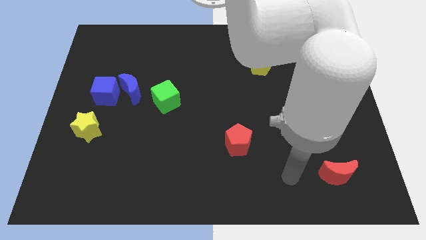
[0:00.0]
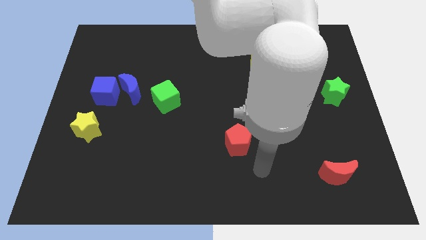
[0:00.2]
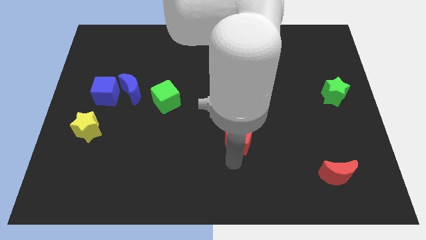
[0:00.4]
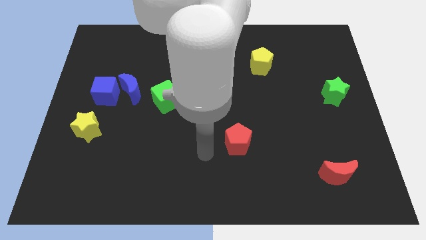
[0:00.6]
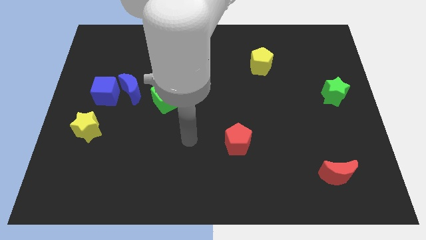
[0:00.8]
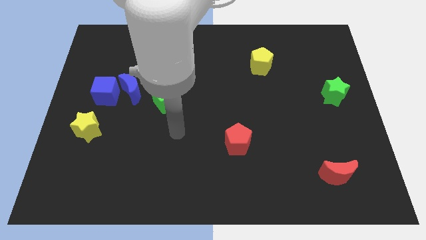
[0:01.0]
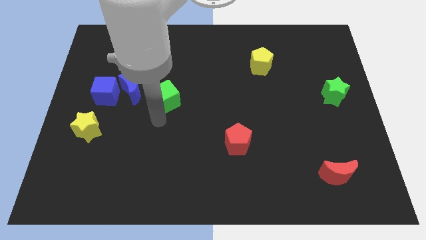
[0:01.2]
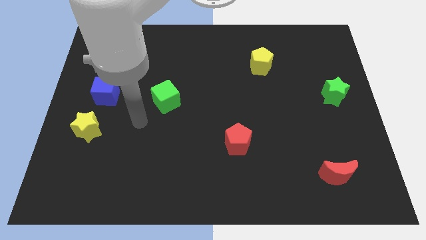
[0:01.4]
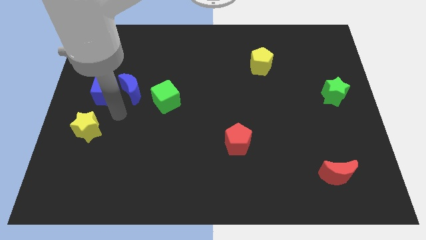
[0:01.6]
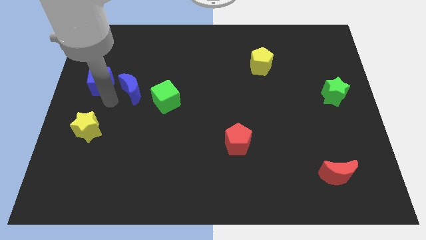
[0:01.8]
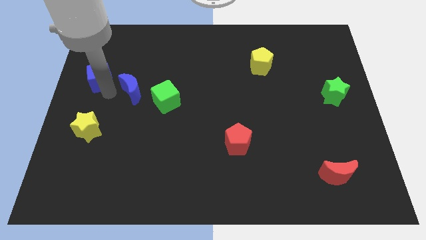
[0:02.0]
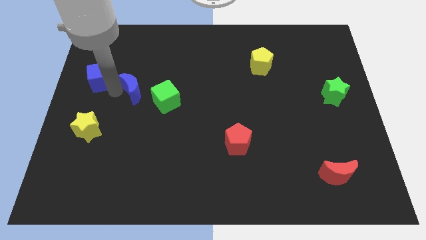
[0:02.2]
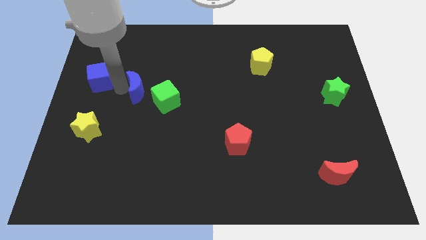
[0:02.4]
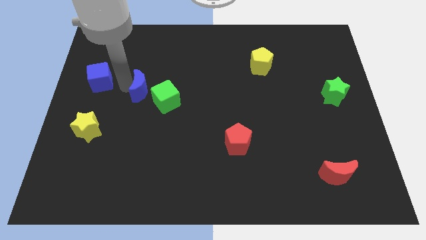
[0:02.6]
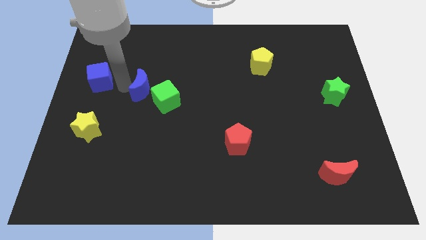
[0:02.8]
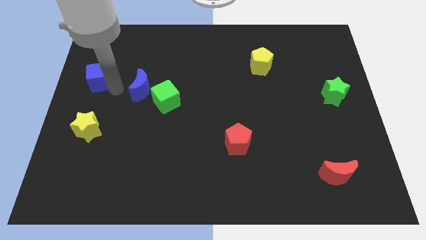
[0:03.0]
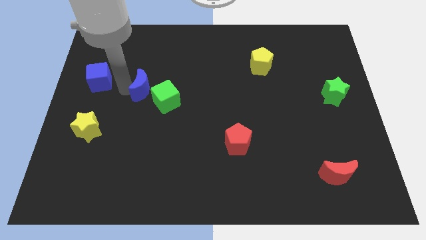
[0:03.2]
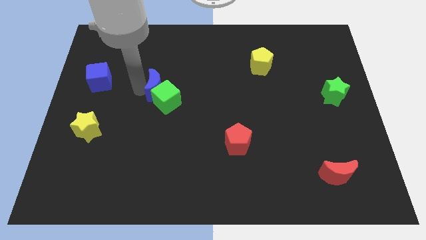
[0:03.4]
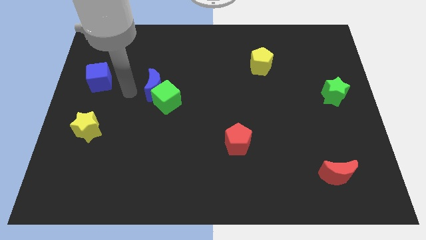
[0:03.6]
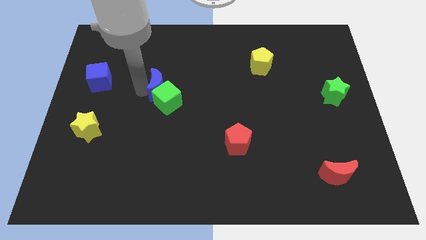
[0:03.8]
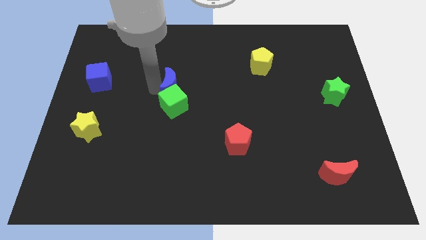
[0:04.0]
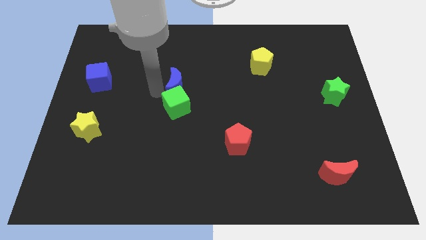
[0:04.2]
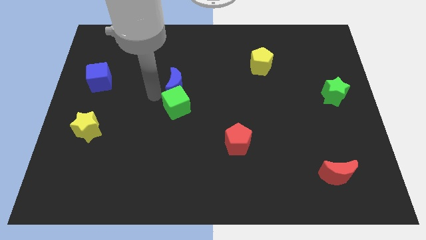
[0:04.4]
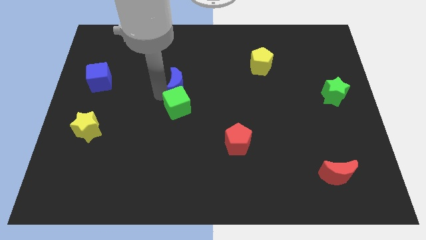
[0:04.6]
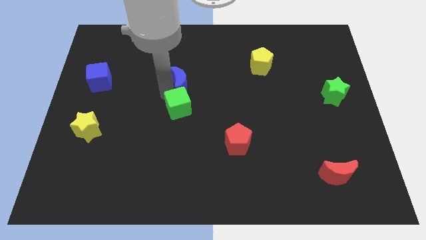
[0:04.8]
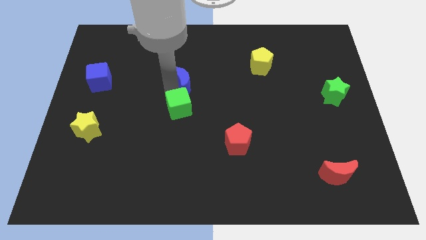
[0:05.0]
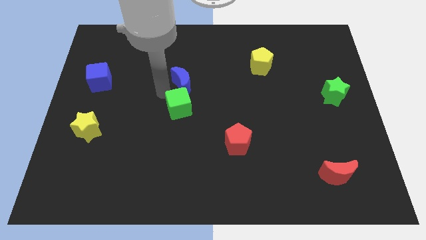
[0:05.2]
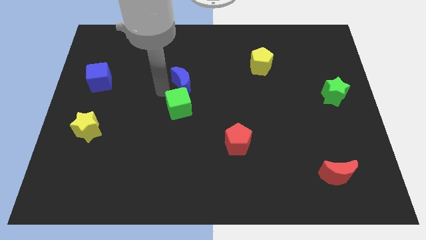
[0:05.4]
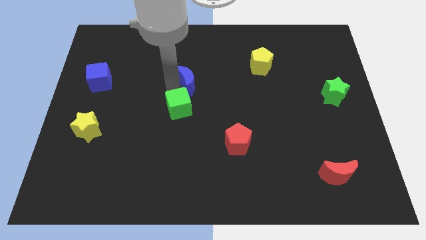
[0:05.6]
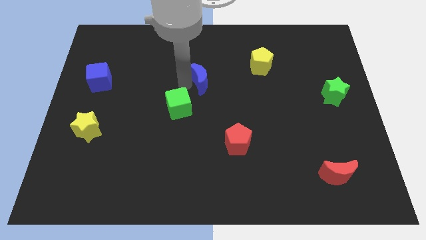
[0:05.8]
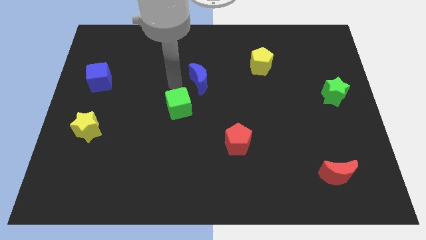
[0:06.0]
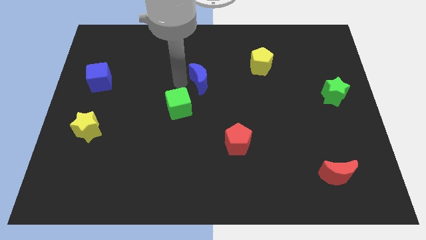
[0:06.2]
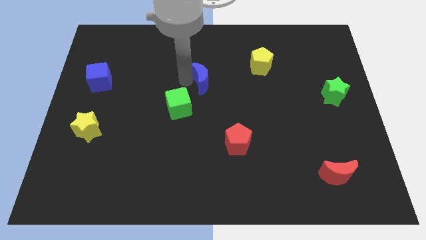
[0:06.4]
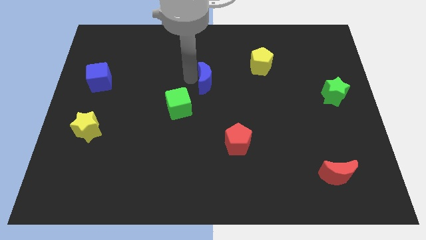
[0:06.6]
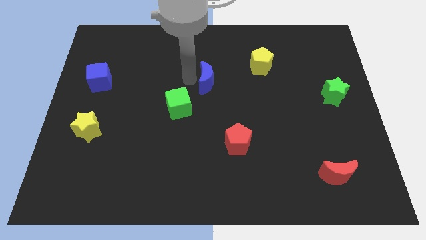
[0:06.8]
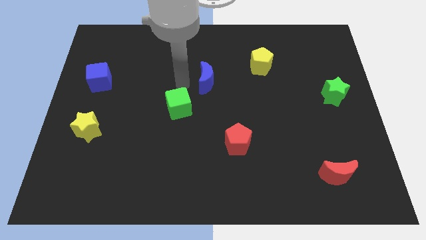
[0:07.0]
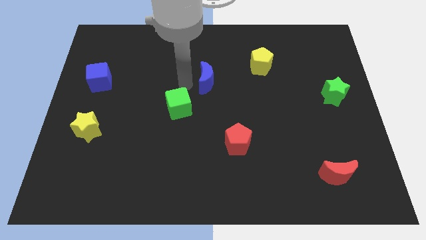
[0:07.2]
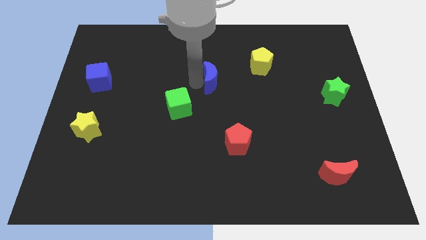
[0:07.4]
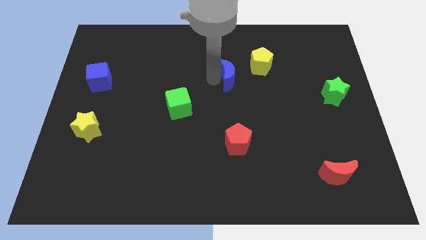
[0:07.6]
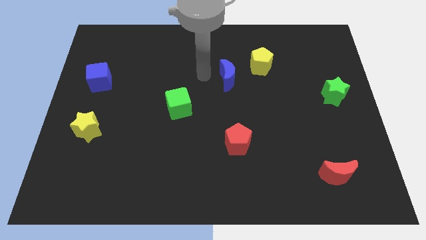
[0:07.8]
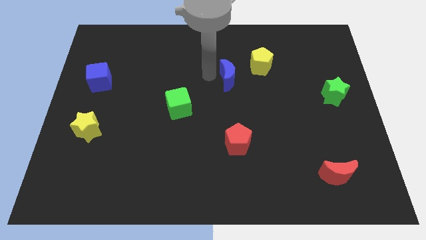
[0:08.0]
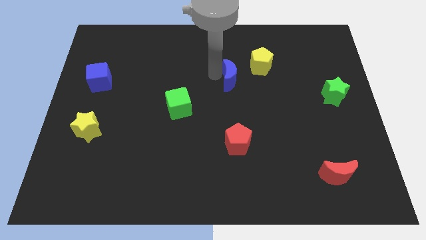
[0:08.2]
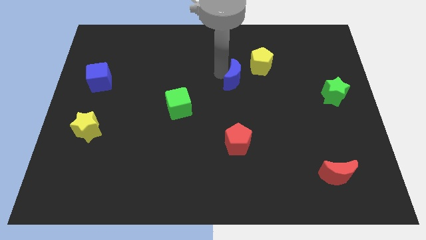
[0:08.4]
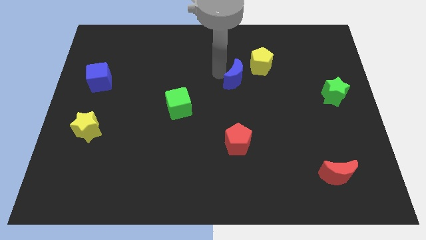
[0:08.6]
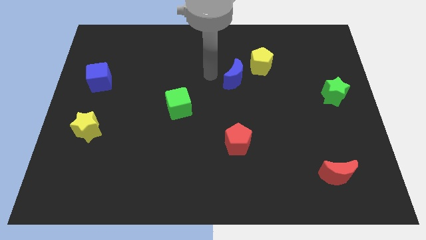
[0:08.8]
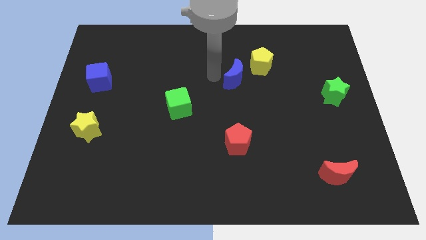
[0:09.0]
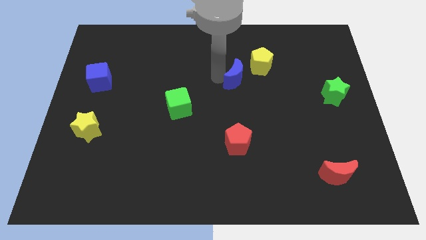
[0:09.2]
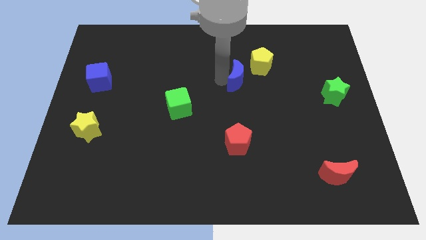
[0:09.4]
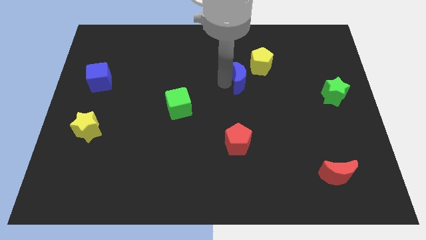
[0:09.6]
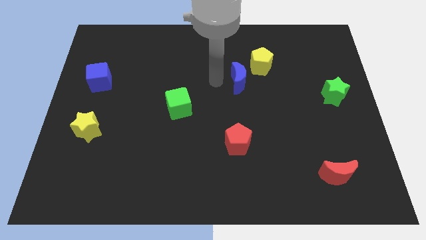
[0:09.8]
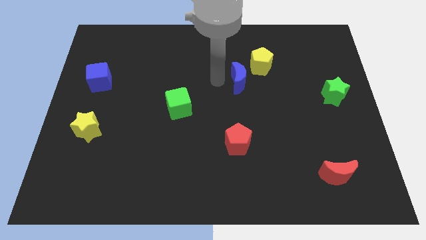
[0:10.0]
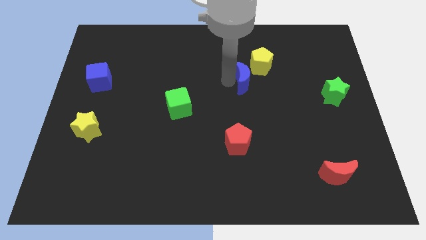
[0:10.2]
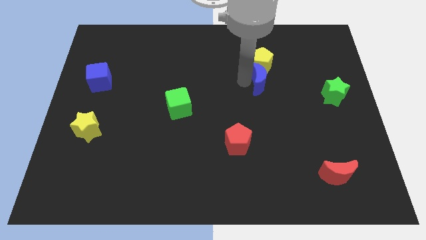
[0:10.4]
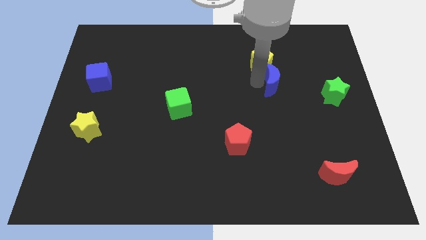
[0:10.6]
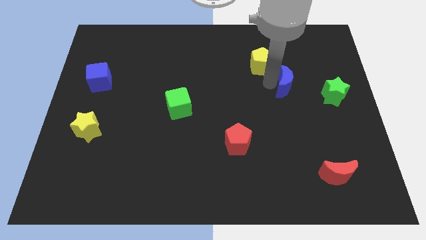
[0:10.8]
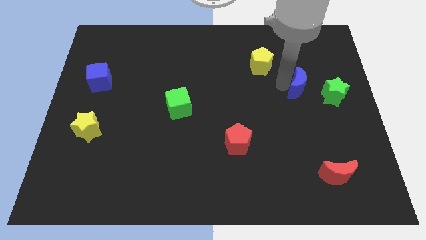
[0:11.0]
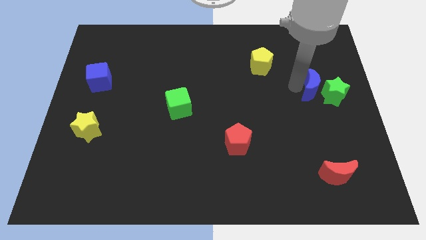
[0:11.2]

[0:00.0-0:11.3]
slide the blue moon to the green star

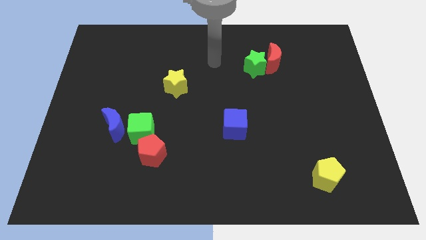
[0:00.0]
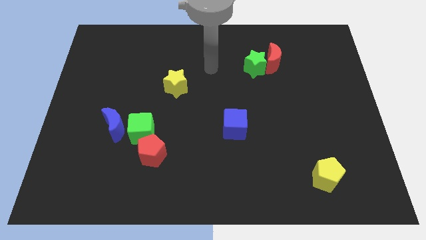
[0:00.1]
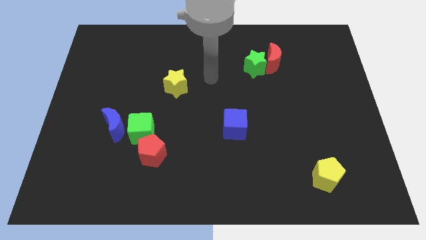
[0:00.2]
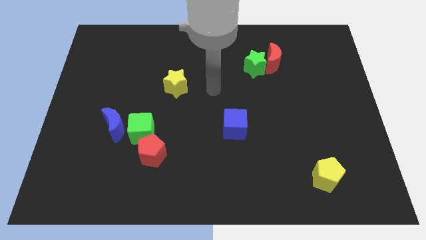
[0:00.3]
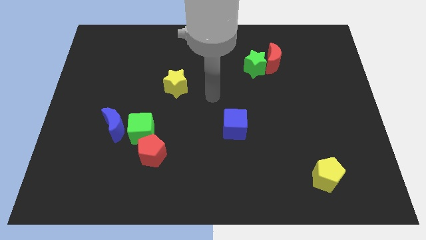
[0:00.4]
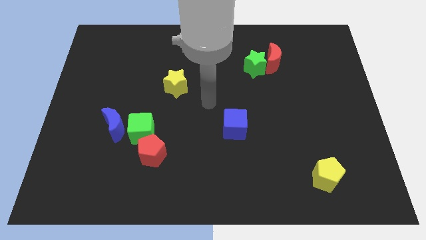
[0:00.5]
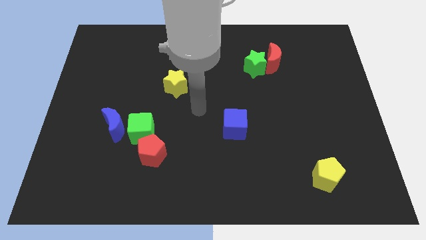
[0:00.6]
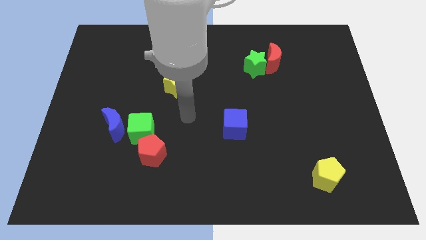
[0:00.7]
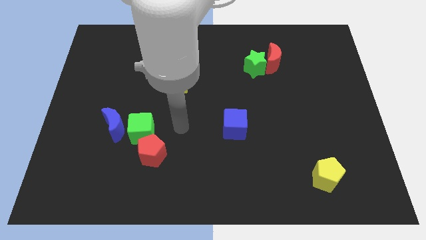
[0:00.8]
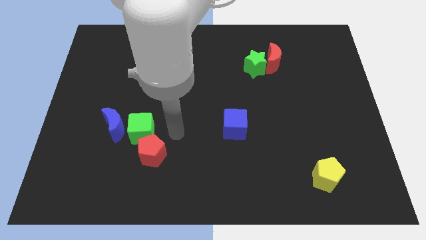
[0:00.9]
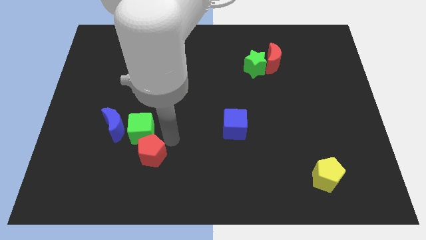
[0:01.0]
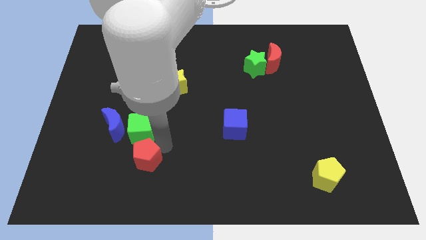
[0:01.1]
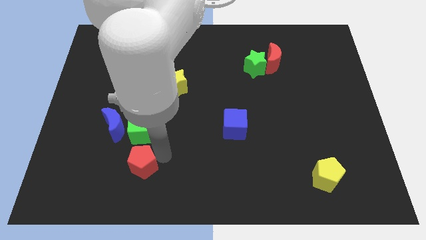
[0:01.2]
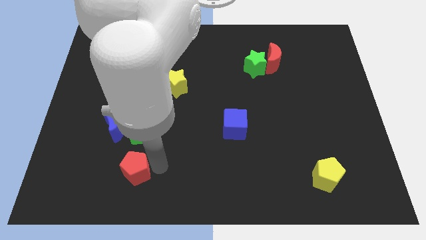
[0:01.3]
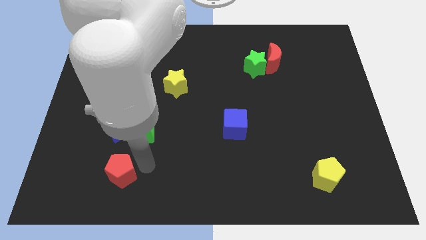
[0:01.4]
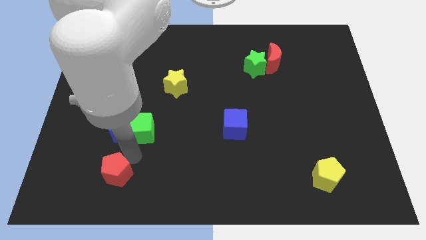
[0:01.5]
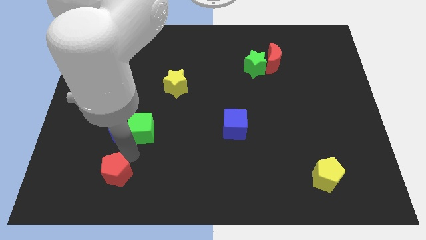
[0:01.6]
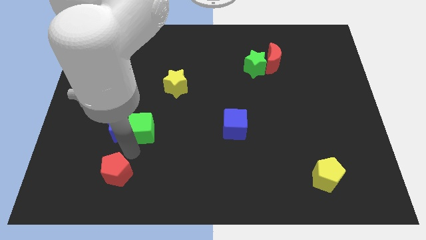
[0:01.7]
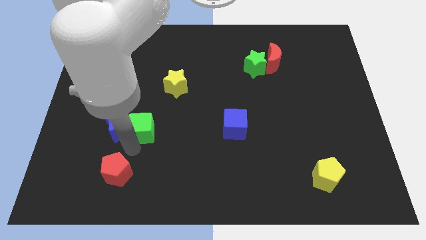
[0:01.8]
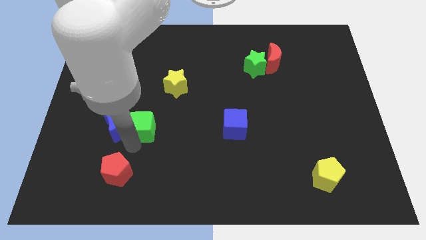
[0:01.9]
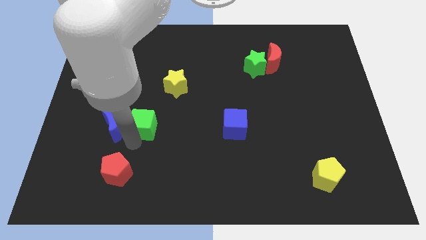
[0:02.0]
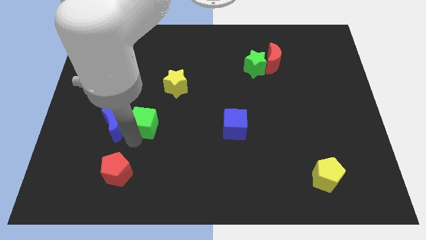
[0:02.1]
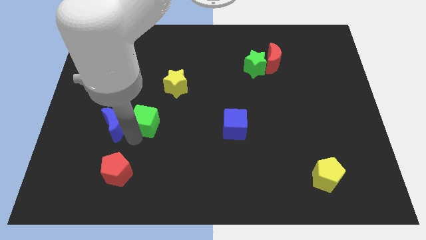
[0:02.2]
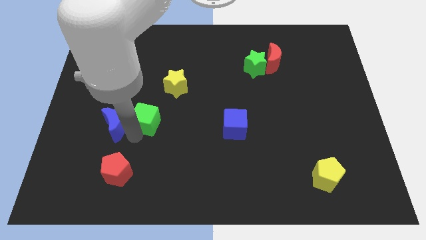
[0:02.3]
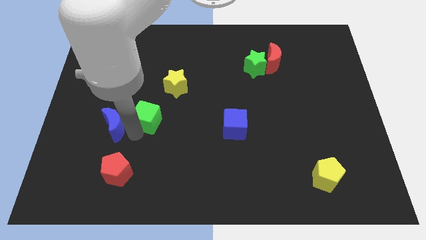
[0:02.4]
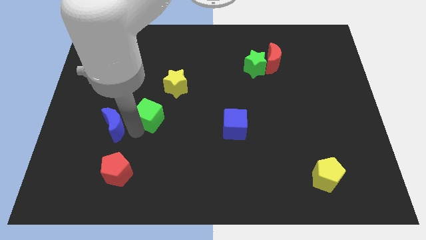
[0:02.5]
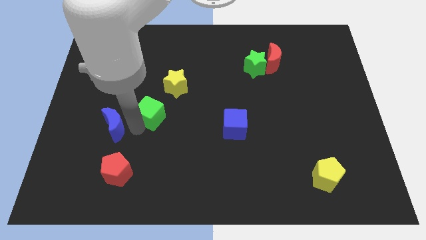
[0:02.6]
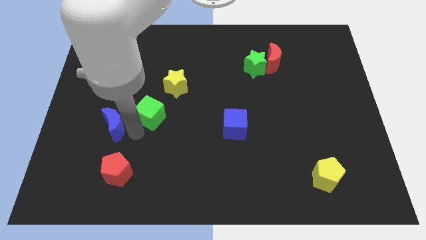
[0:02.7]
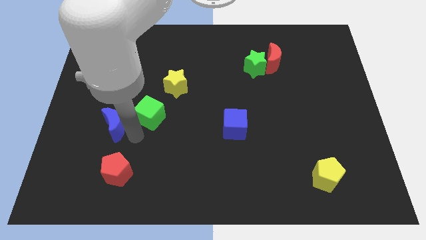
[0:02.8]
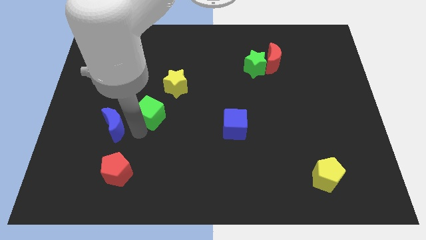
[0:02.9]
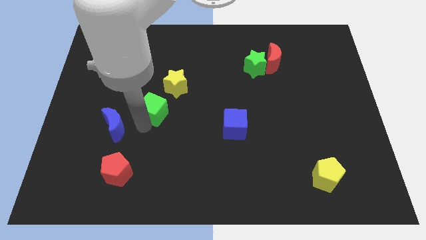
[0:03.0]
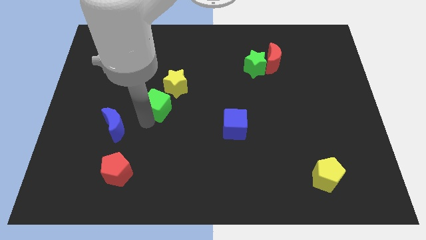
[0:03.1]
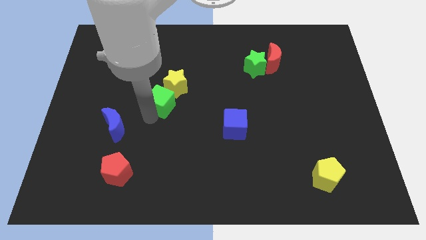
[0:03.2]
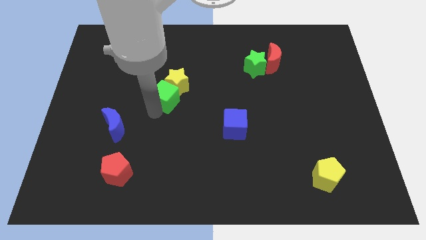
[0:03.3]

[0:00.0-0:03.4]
put the green cube to the yellow star
